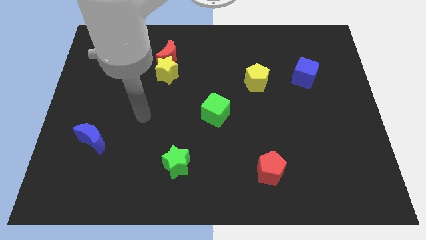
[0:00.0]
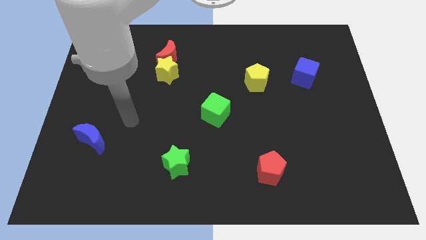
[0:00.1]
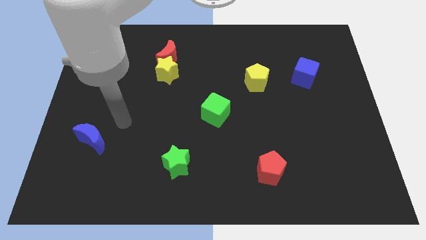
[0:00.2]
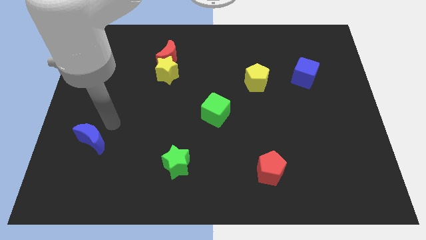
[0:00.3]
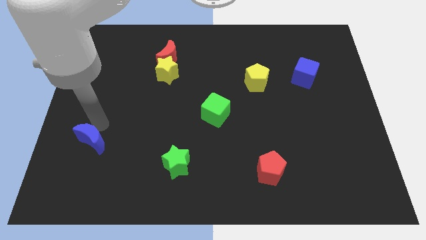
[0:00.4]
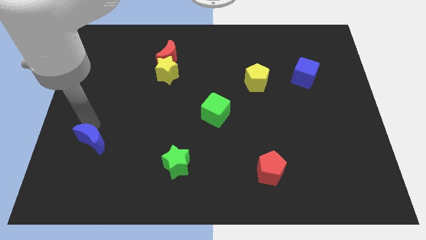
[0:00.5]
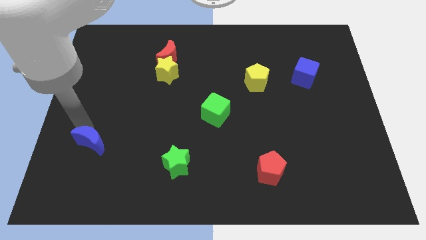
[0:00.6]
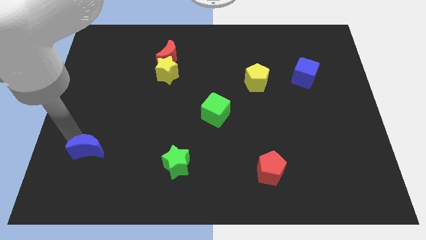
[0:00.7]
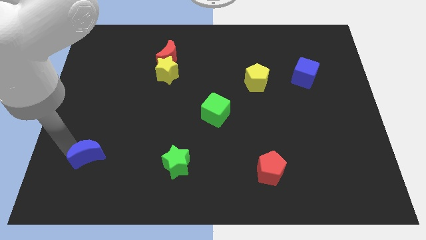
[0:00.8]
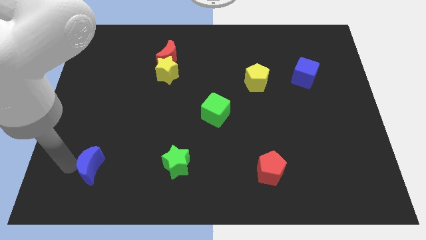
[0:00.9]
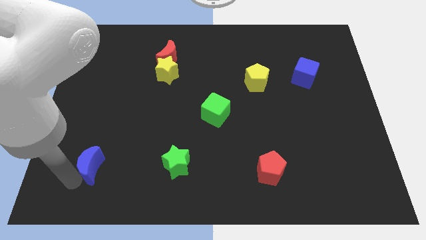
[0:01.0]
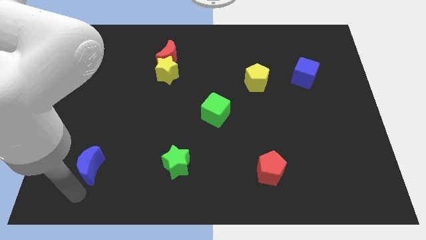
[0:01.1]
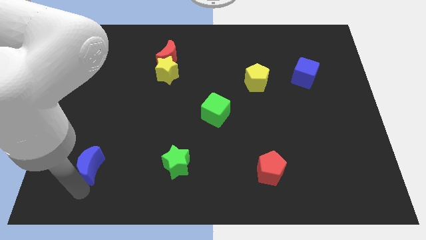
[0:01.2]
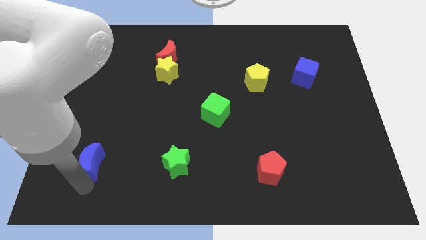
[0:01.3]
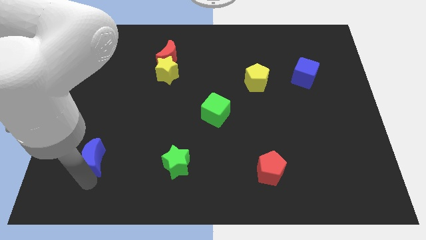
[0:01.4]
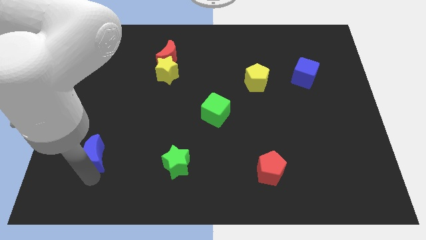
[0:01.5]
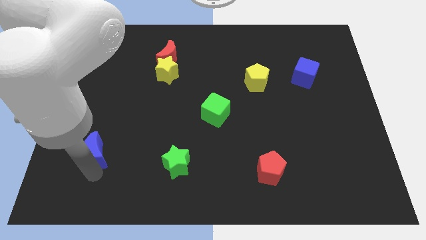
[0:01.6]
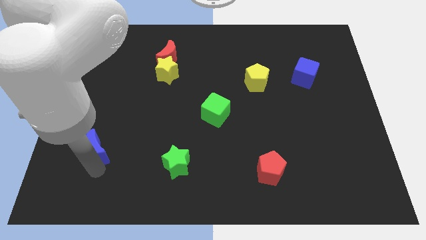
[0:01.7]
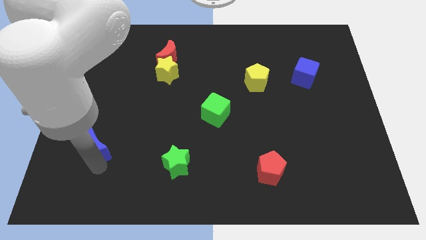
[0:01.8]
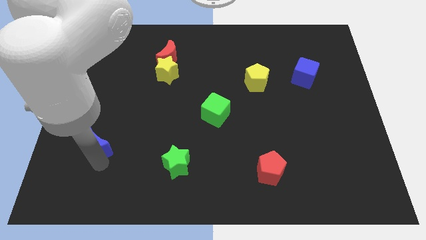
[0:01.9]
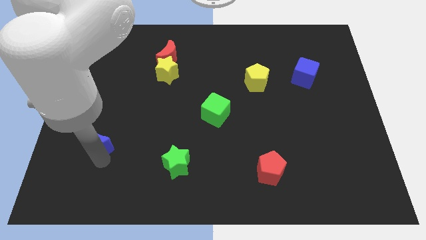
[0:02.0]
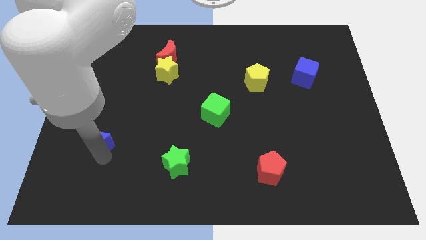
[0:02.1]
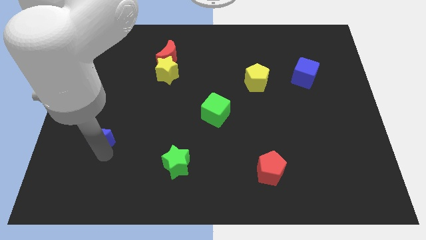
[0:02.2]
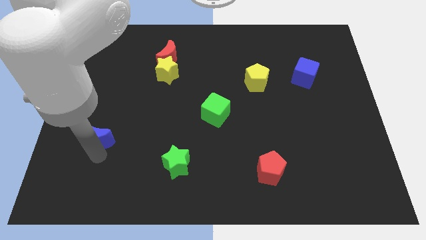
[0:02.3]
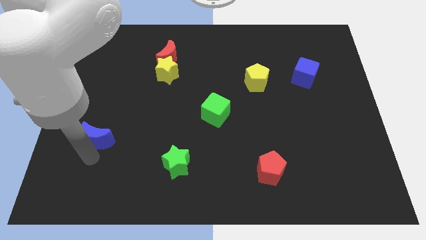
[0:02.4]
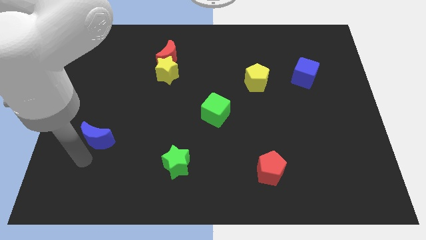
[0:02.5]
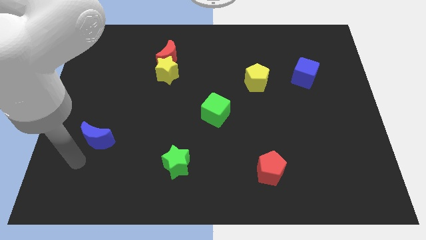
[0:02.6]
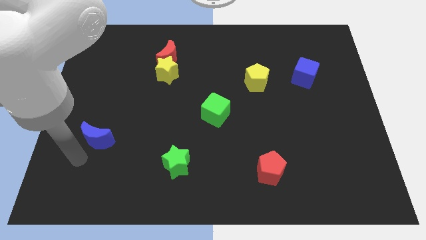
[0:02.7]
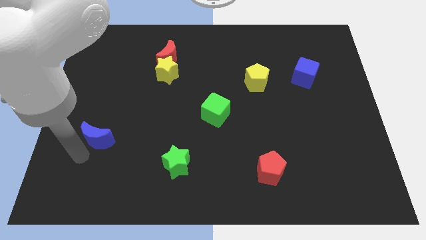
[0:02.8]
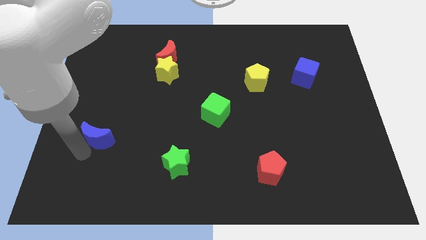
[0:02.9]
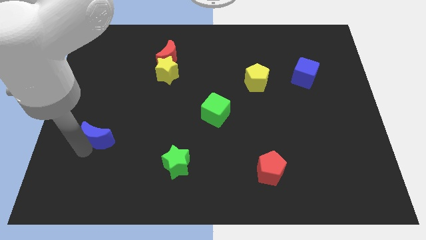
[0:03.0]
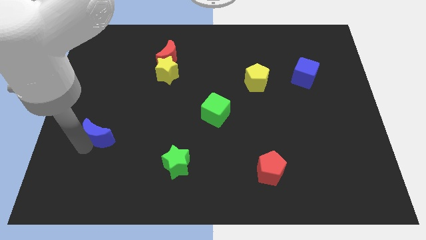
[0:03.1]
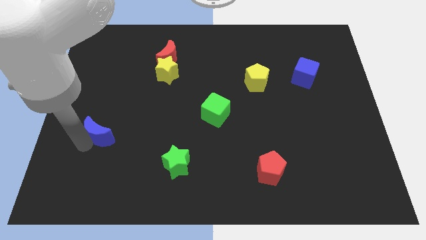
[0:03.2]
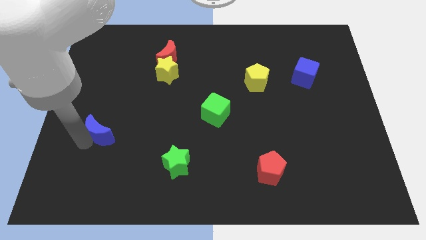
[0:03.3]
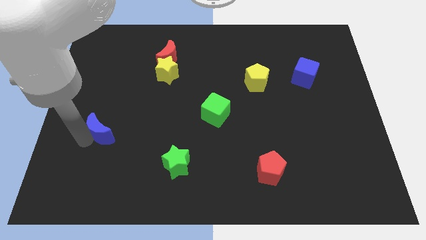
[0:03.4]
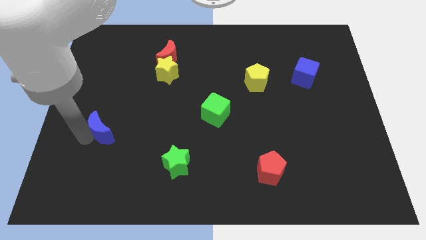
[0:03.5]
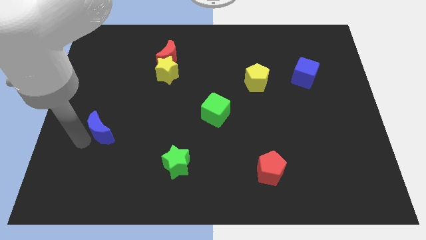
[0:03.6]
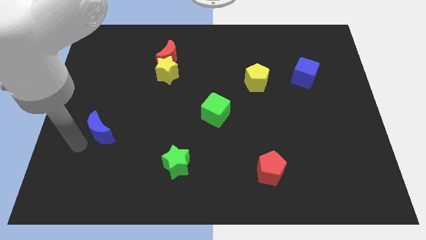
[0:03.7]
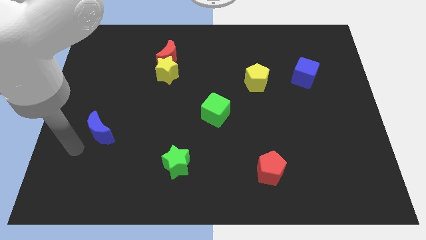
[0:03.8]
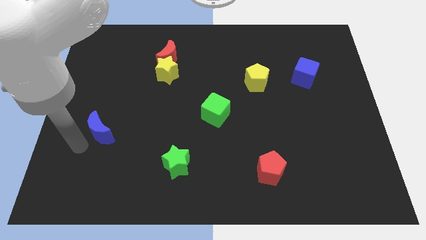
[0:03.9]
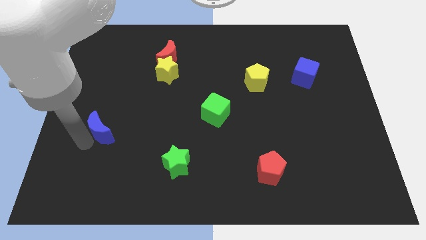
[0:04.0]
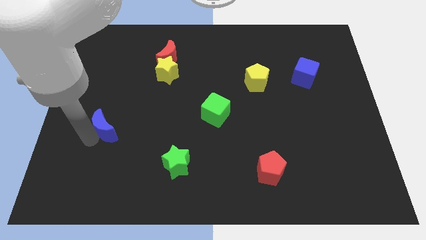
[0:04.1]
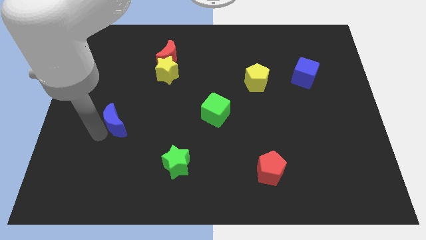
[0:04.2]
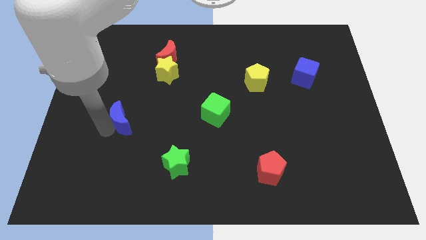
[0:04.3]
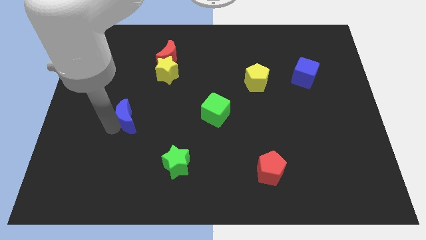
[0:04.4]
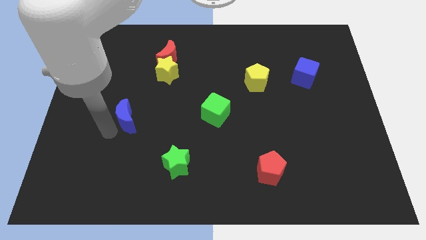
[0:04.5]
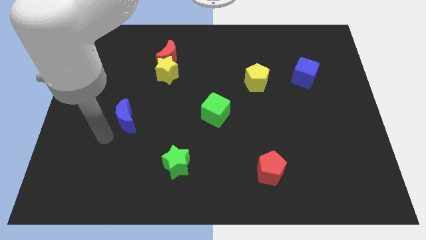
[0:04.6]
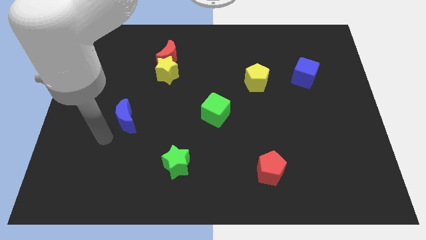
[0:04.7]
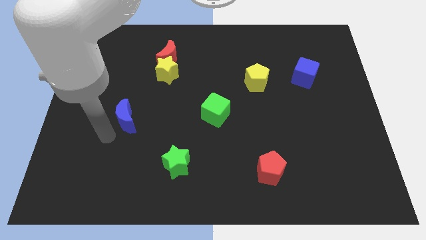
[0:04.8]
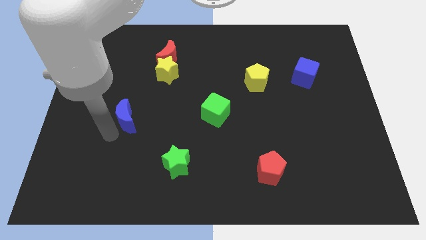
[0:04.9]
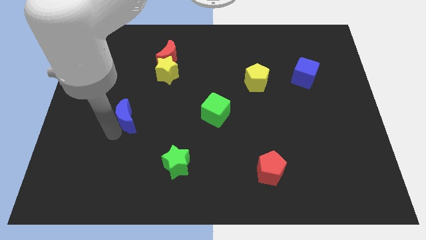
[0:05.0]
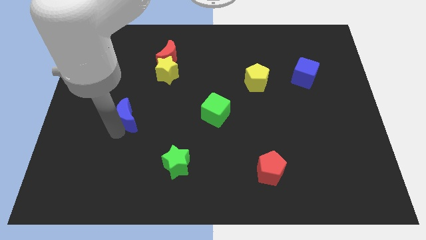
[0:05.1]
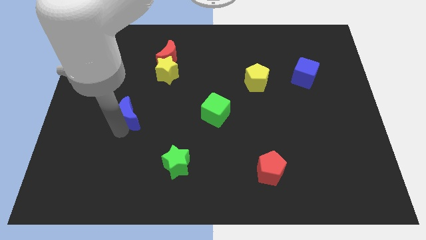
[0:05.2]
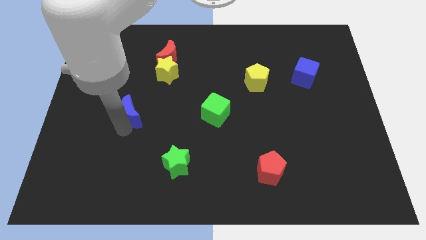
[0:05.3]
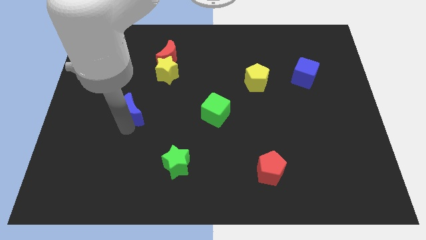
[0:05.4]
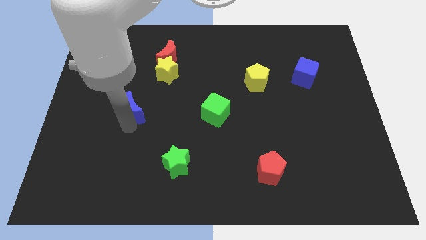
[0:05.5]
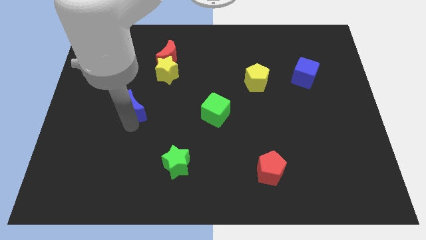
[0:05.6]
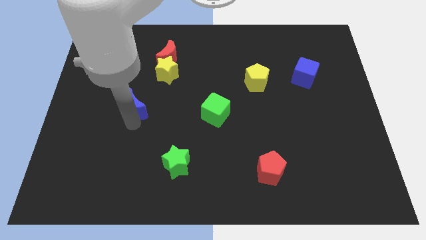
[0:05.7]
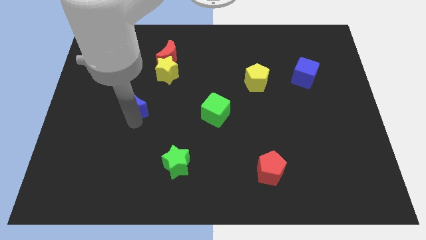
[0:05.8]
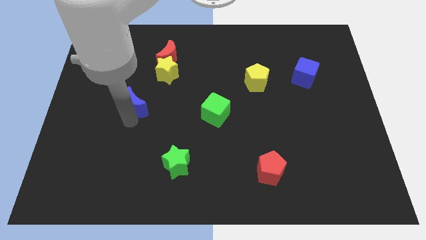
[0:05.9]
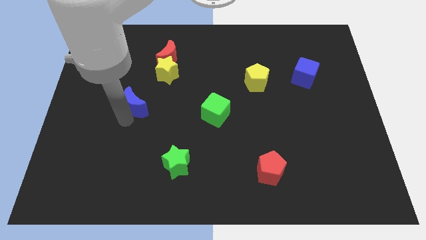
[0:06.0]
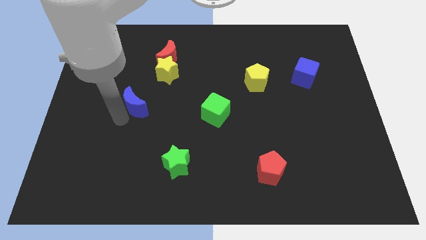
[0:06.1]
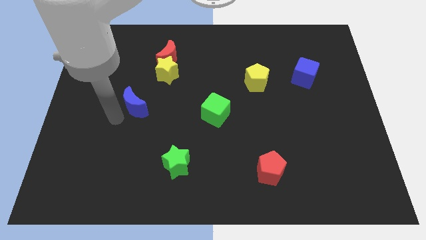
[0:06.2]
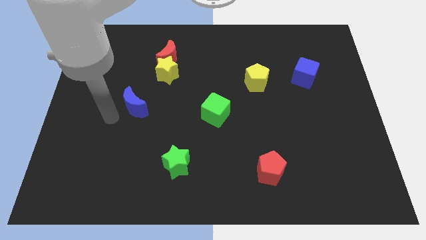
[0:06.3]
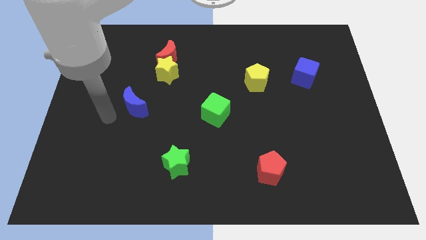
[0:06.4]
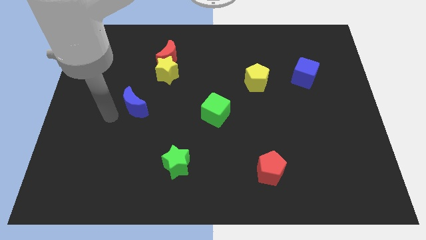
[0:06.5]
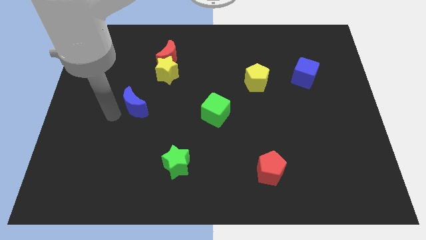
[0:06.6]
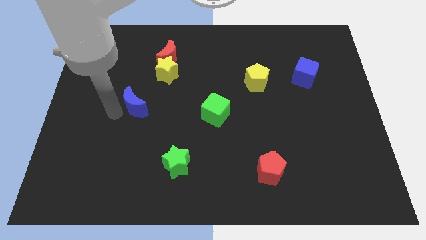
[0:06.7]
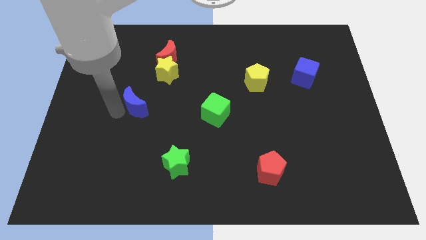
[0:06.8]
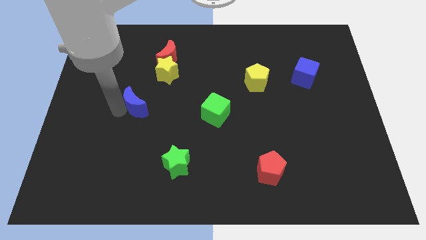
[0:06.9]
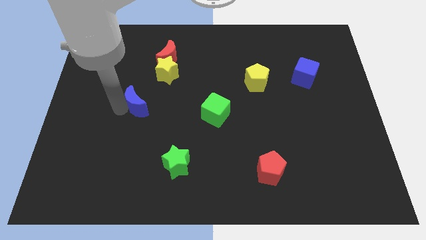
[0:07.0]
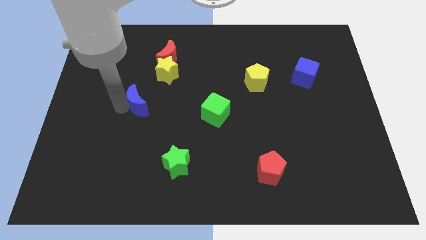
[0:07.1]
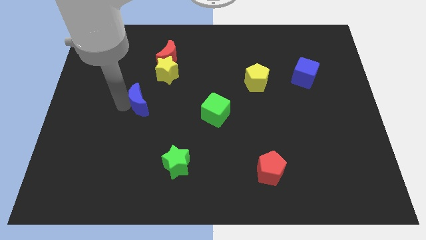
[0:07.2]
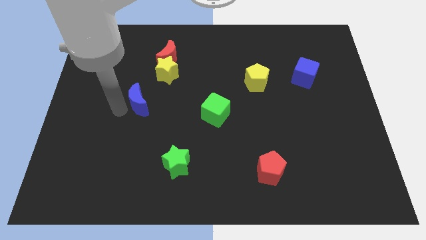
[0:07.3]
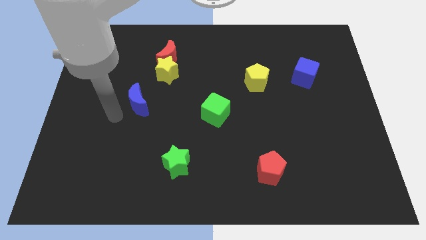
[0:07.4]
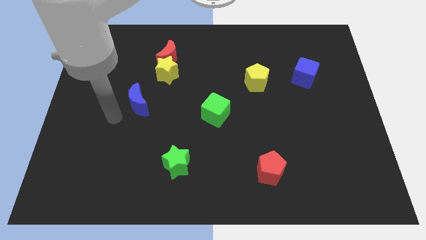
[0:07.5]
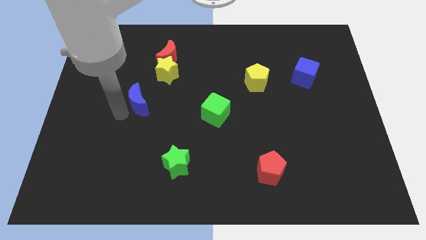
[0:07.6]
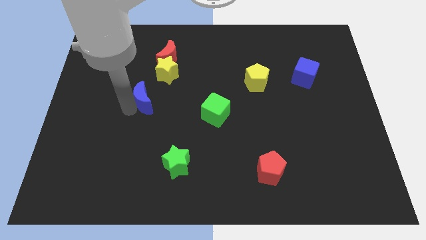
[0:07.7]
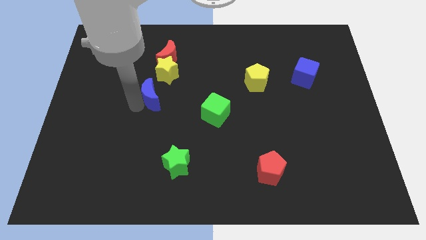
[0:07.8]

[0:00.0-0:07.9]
put the blue moon to the bottom side of the red moon
